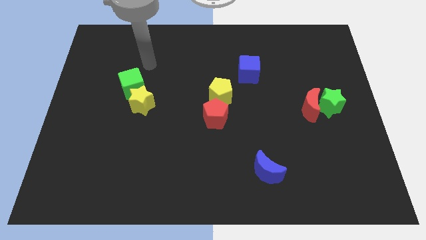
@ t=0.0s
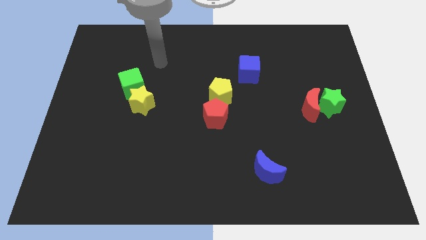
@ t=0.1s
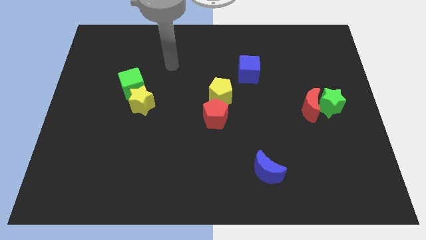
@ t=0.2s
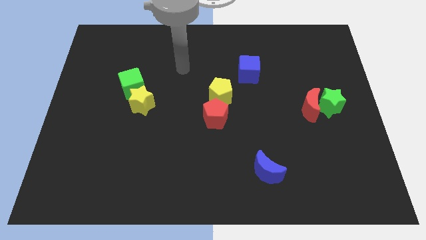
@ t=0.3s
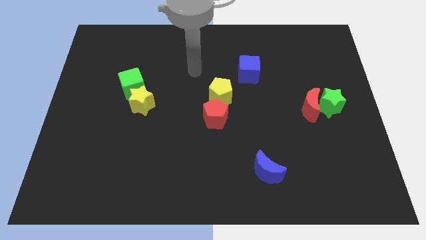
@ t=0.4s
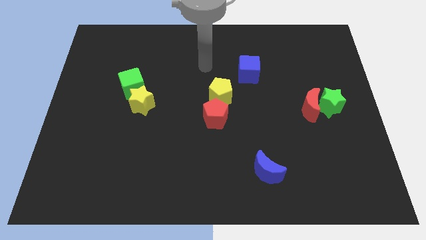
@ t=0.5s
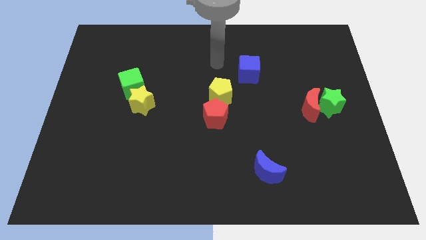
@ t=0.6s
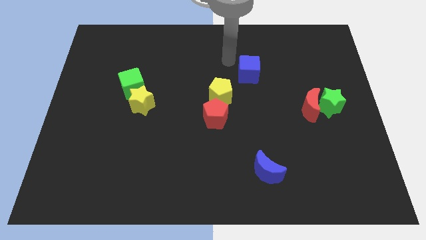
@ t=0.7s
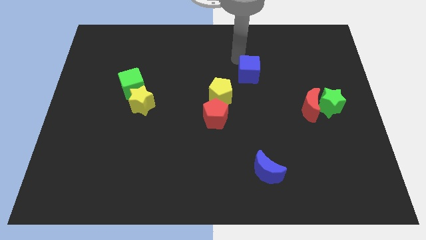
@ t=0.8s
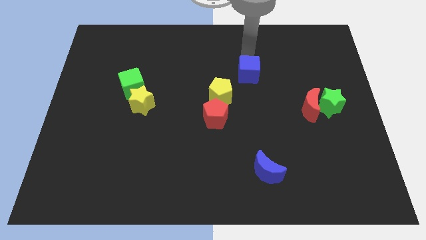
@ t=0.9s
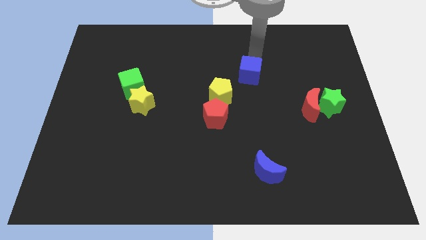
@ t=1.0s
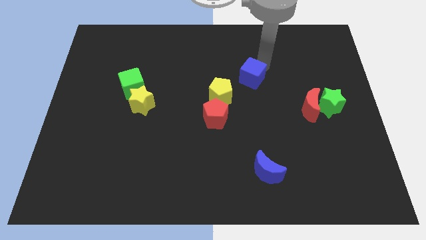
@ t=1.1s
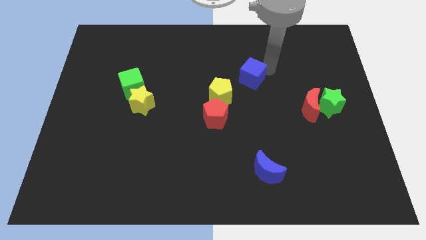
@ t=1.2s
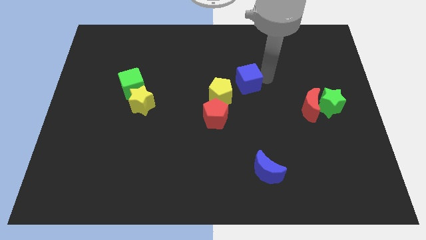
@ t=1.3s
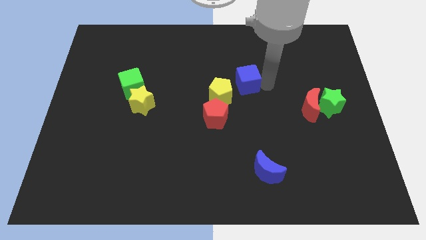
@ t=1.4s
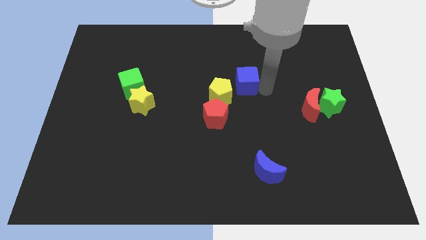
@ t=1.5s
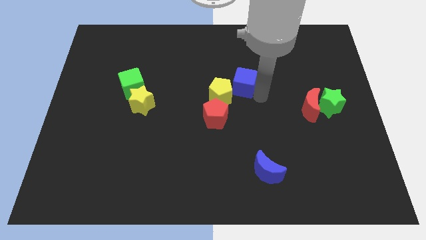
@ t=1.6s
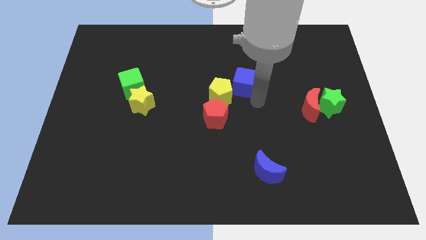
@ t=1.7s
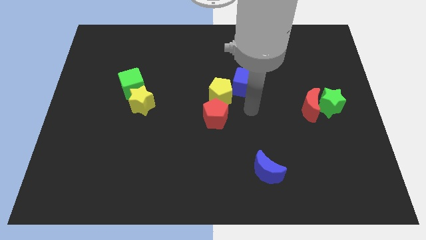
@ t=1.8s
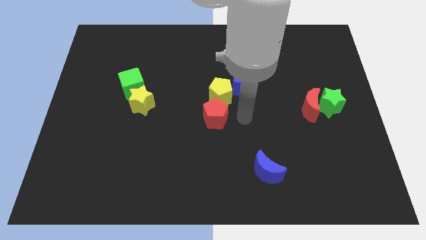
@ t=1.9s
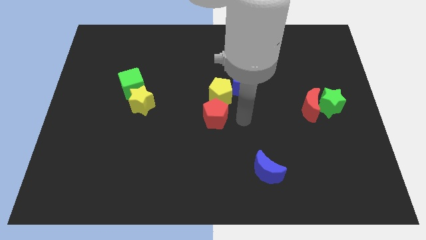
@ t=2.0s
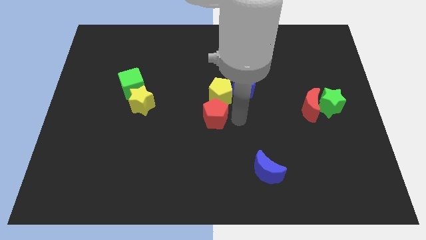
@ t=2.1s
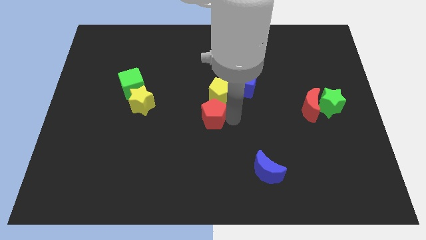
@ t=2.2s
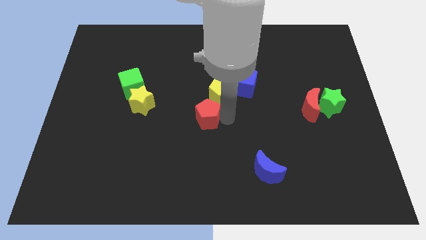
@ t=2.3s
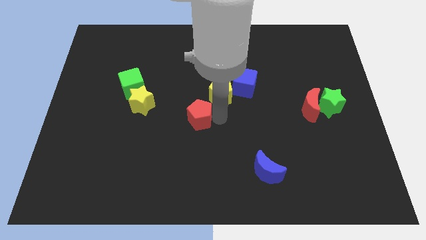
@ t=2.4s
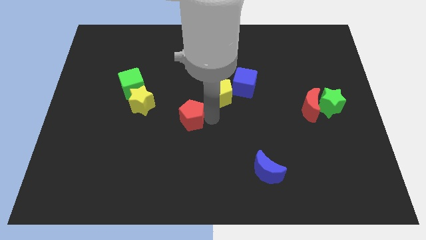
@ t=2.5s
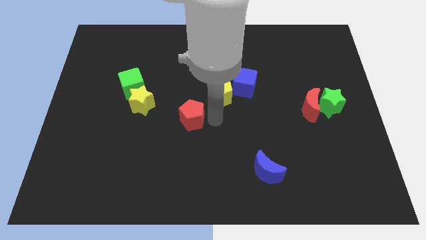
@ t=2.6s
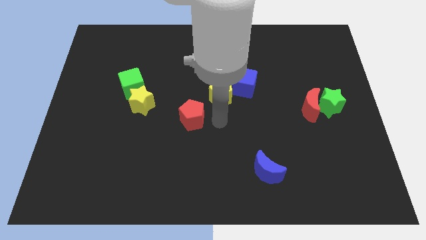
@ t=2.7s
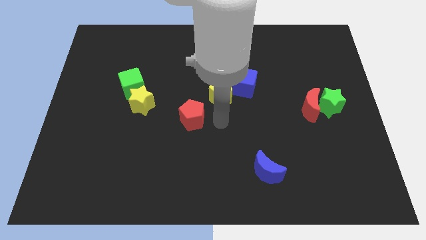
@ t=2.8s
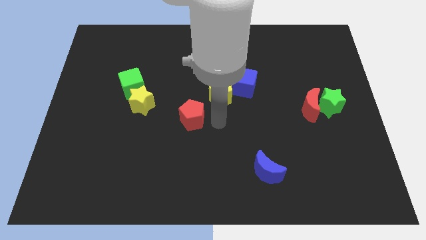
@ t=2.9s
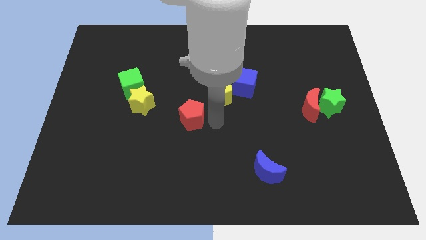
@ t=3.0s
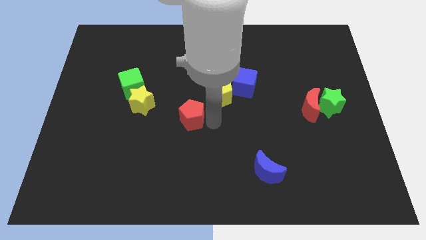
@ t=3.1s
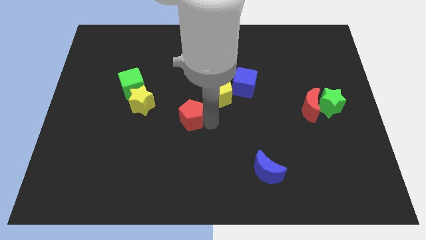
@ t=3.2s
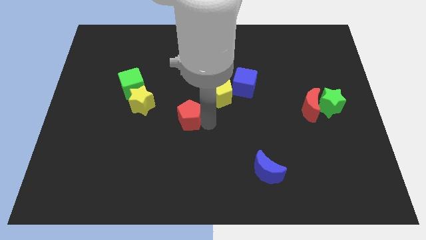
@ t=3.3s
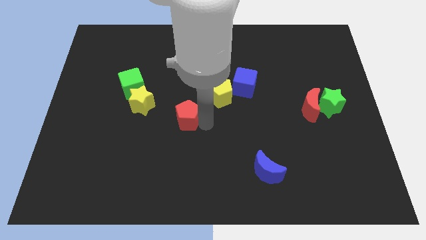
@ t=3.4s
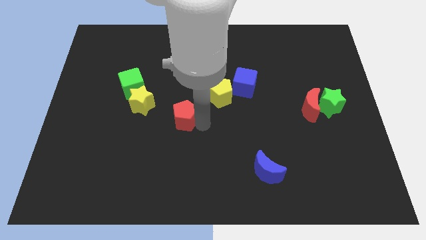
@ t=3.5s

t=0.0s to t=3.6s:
slightly move the red pentagon to the left

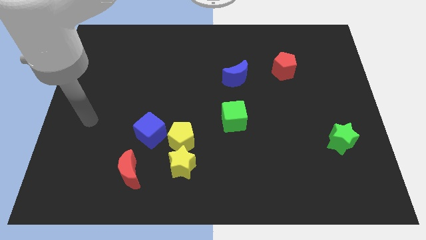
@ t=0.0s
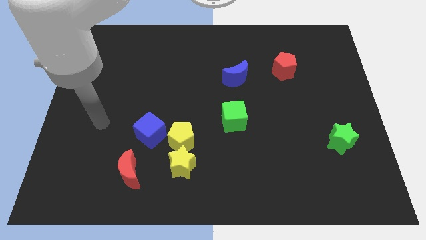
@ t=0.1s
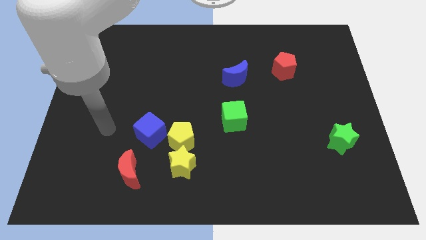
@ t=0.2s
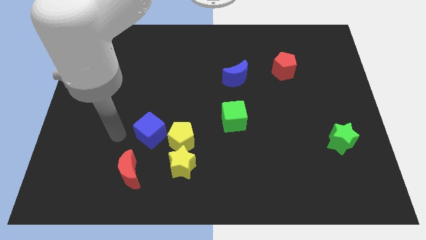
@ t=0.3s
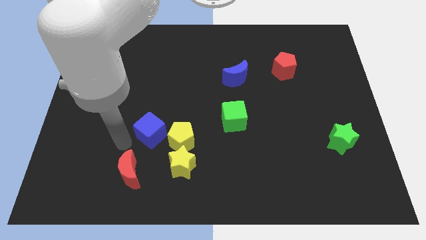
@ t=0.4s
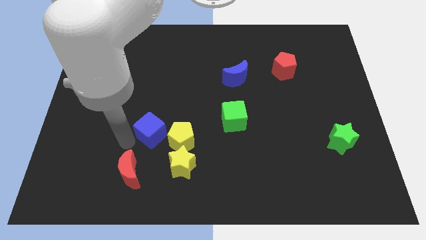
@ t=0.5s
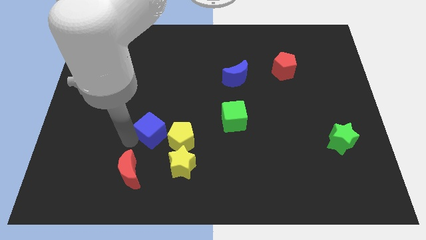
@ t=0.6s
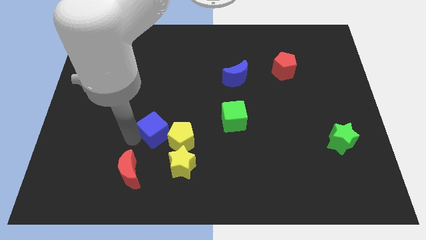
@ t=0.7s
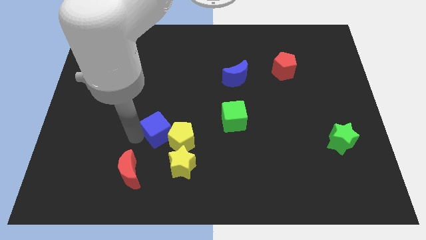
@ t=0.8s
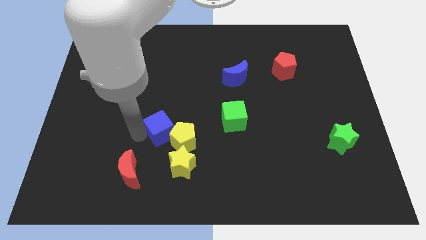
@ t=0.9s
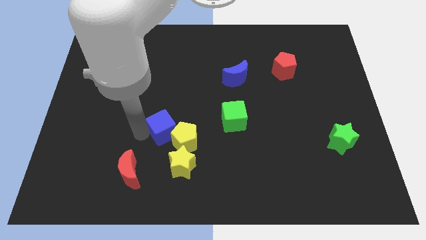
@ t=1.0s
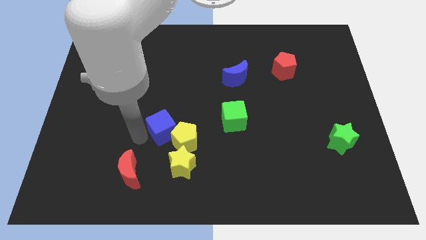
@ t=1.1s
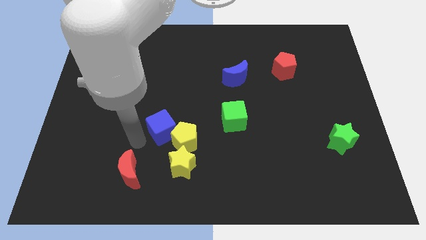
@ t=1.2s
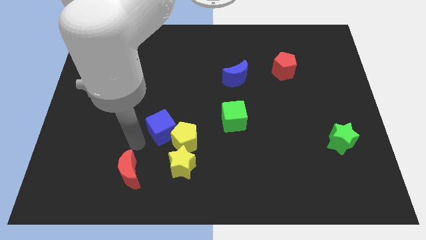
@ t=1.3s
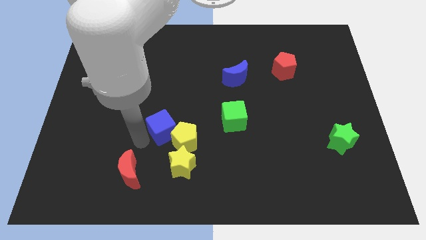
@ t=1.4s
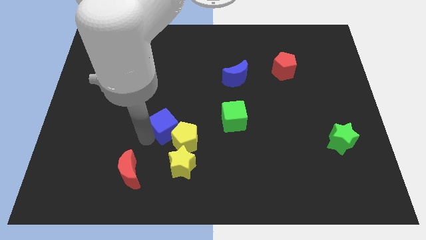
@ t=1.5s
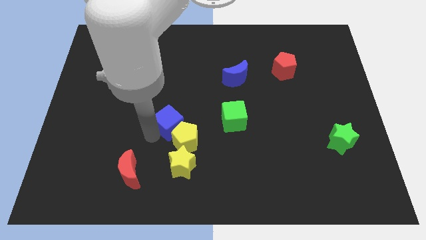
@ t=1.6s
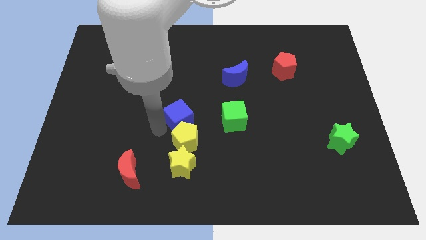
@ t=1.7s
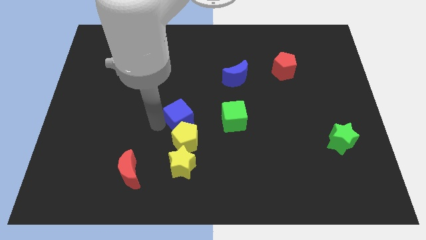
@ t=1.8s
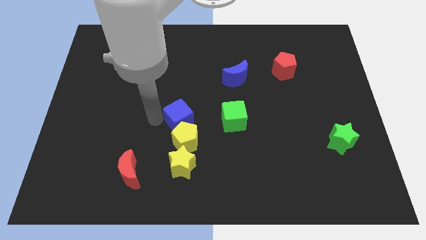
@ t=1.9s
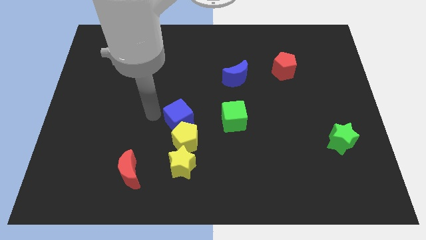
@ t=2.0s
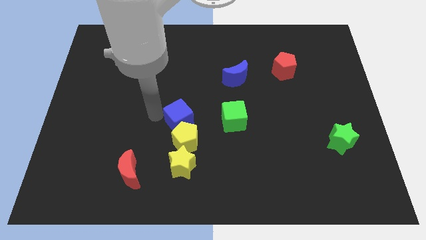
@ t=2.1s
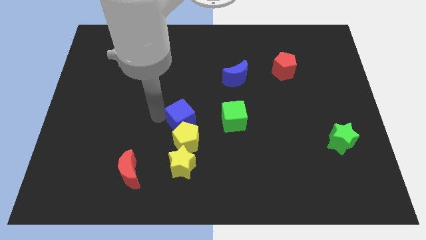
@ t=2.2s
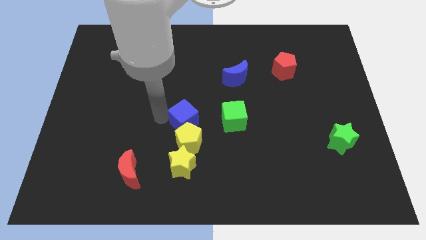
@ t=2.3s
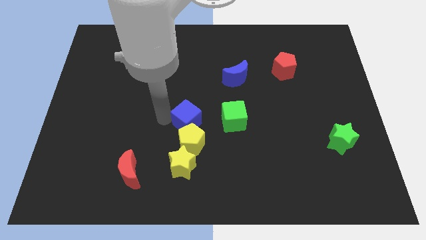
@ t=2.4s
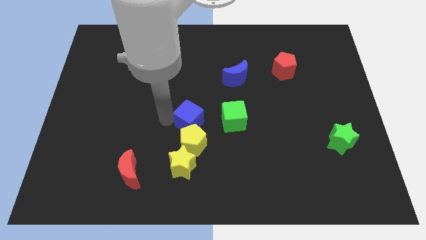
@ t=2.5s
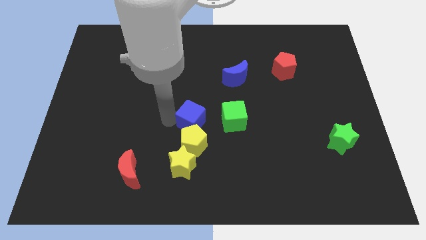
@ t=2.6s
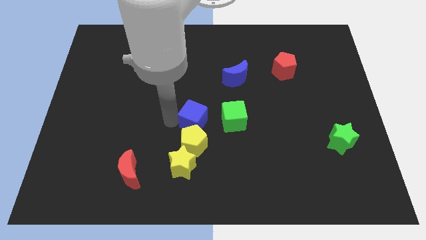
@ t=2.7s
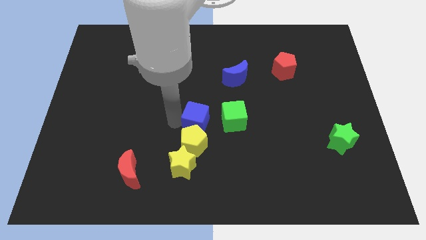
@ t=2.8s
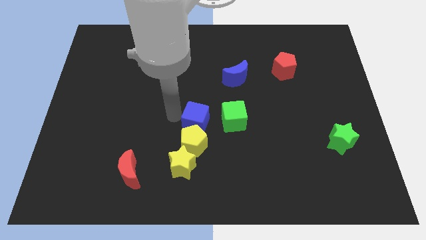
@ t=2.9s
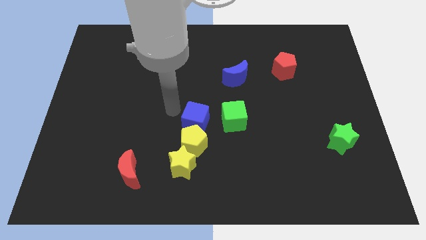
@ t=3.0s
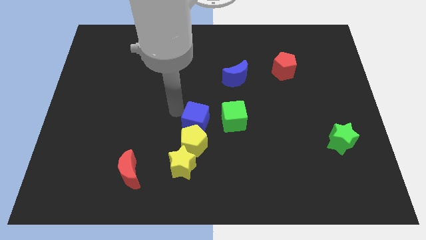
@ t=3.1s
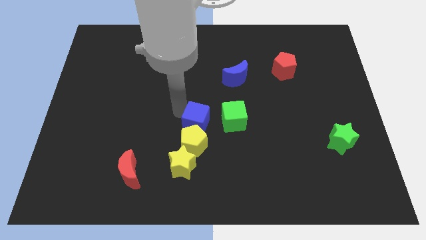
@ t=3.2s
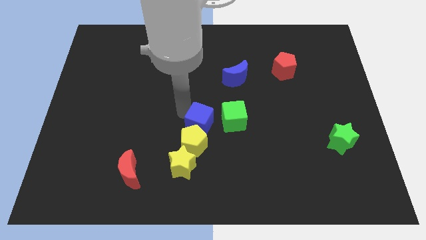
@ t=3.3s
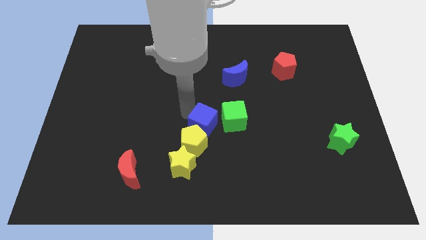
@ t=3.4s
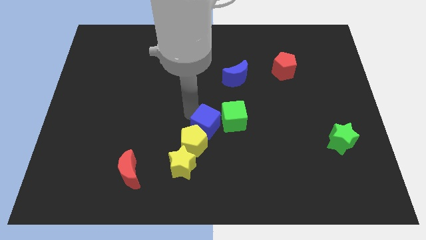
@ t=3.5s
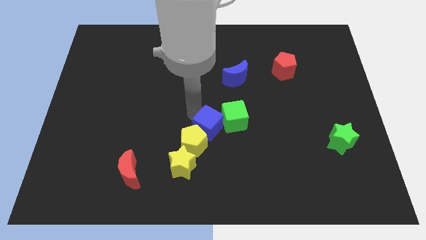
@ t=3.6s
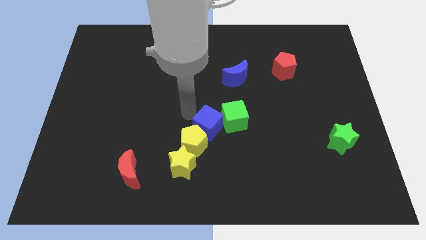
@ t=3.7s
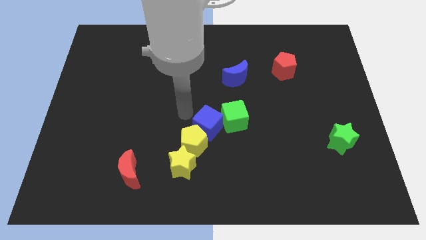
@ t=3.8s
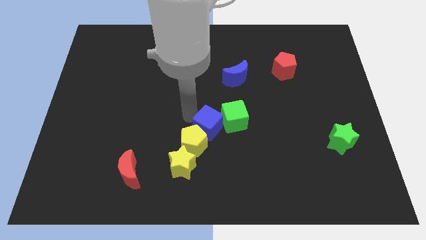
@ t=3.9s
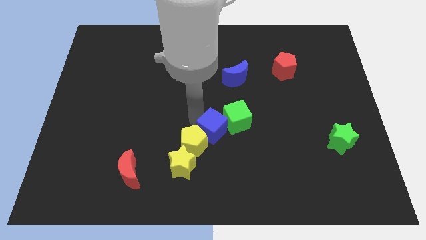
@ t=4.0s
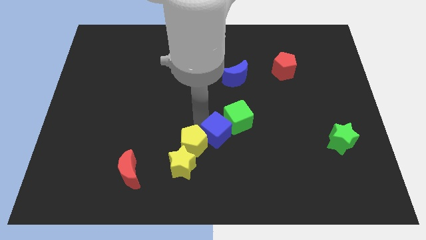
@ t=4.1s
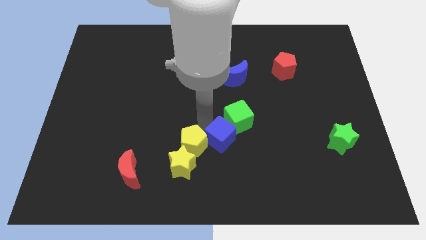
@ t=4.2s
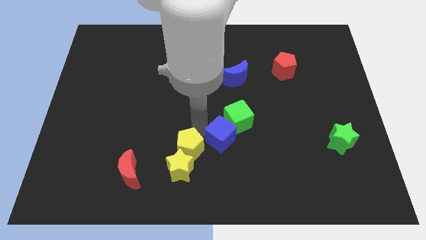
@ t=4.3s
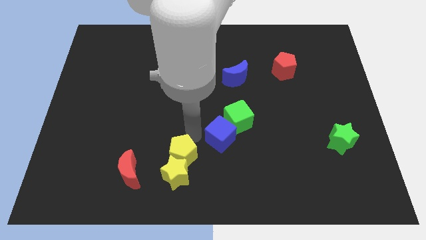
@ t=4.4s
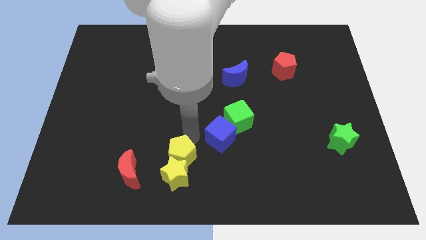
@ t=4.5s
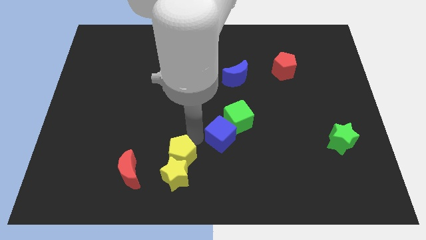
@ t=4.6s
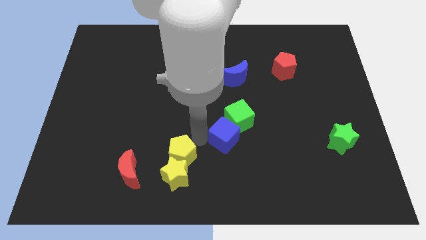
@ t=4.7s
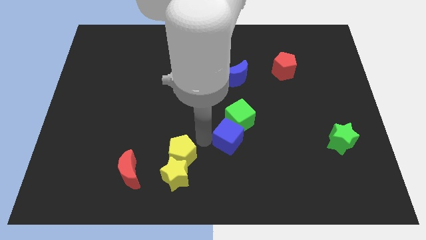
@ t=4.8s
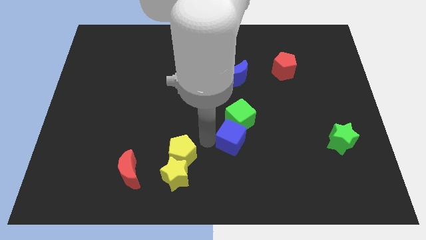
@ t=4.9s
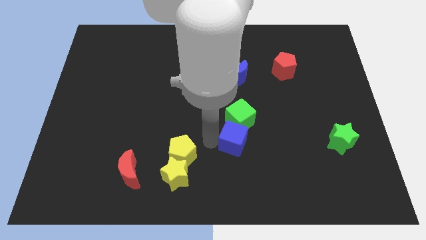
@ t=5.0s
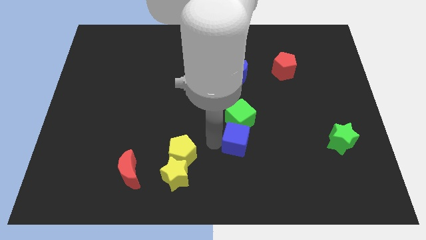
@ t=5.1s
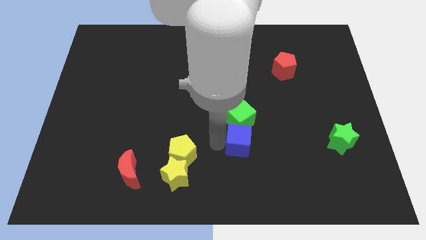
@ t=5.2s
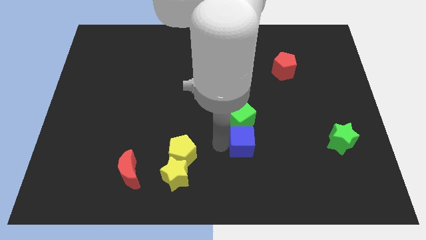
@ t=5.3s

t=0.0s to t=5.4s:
push the blue cube right
